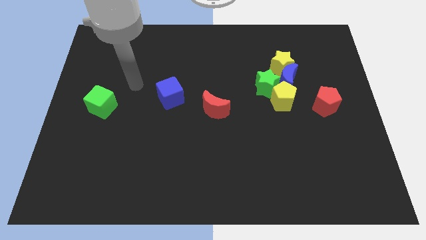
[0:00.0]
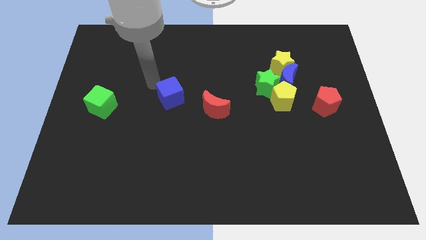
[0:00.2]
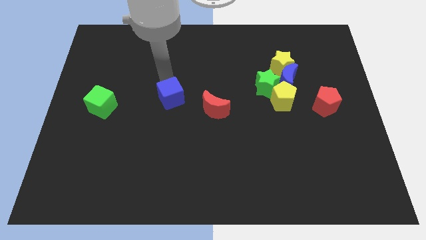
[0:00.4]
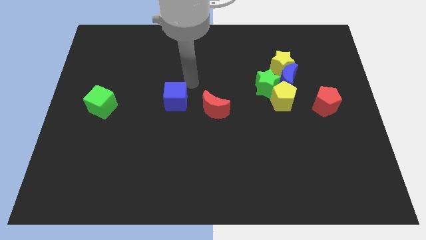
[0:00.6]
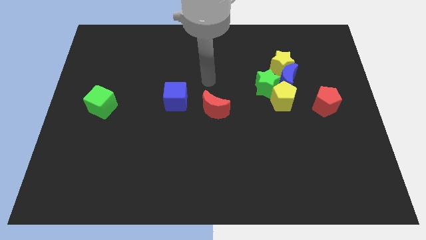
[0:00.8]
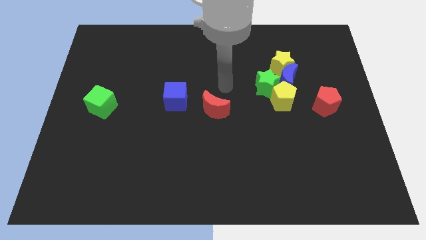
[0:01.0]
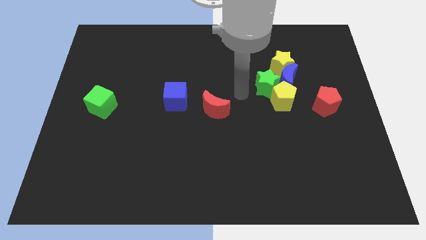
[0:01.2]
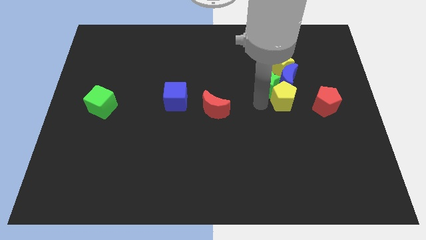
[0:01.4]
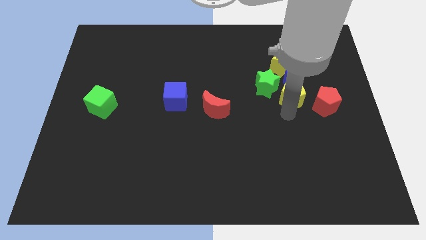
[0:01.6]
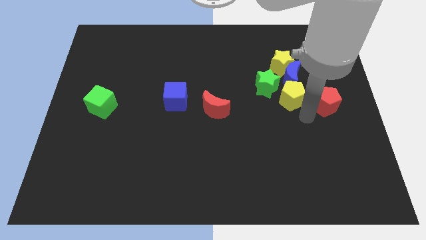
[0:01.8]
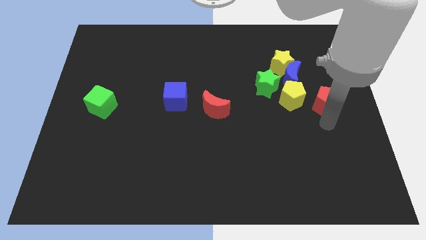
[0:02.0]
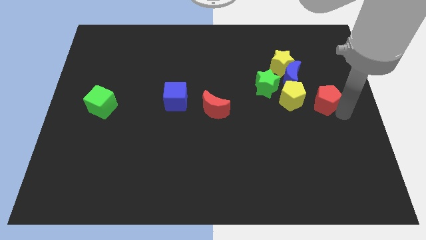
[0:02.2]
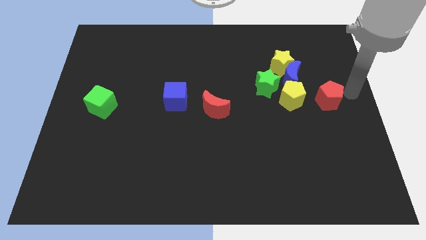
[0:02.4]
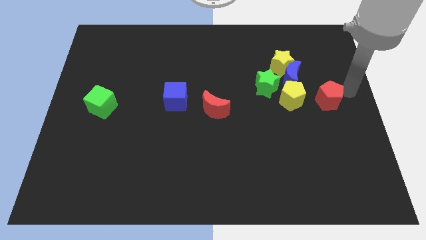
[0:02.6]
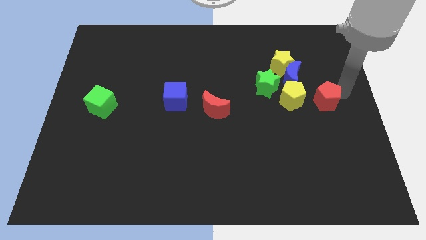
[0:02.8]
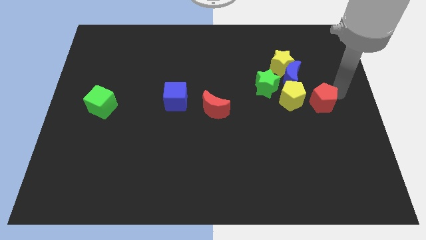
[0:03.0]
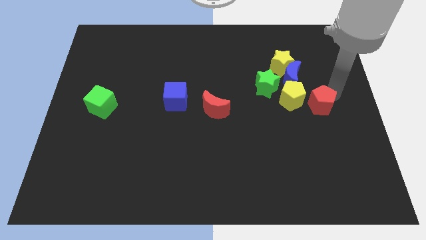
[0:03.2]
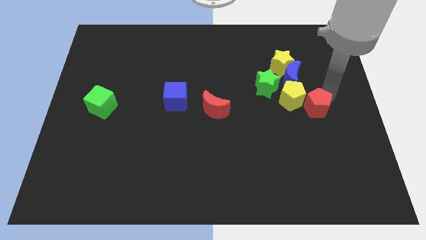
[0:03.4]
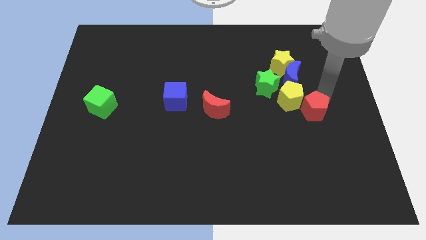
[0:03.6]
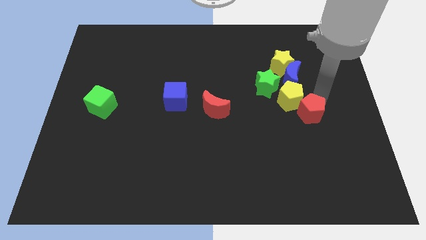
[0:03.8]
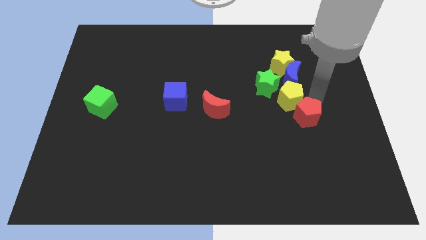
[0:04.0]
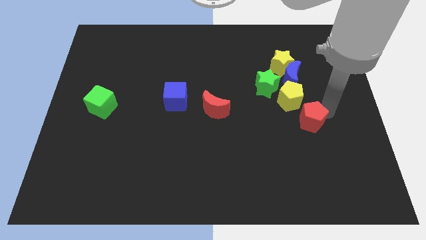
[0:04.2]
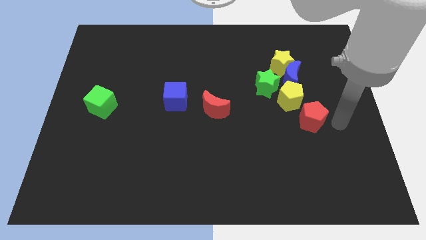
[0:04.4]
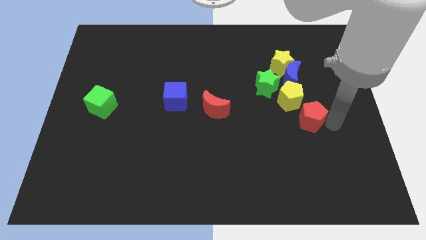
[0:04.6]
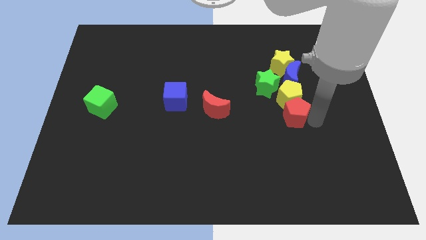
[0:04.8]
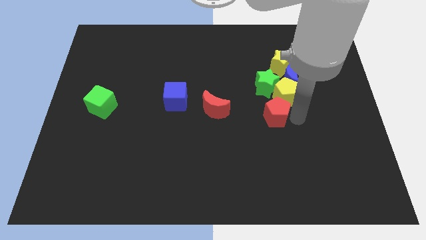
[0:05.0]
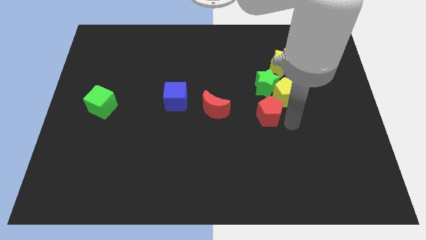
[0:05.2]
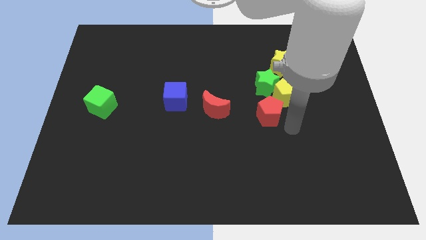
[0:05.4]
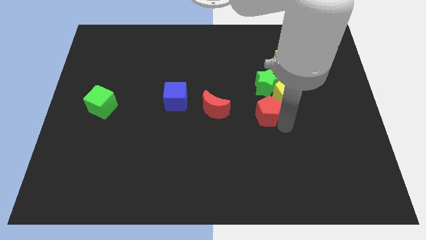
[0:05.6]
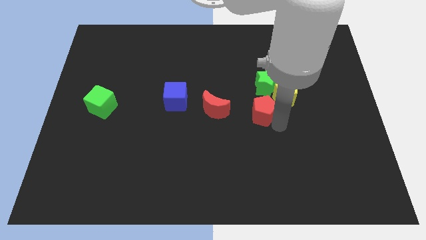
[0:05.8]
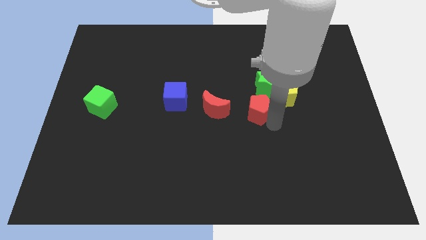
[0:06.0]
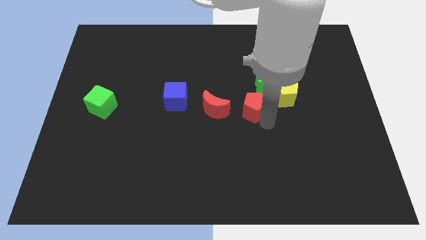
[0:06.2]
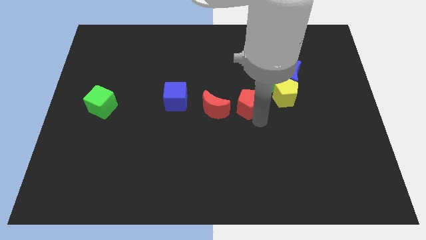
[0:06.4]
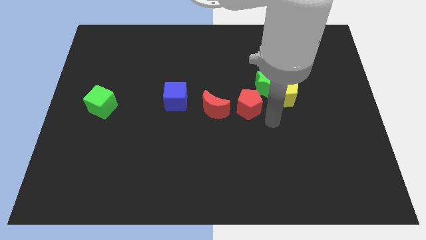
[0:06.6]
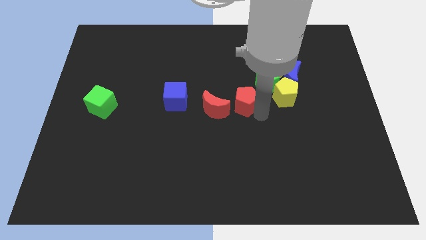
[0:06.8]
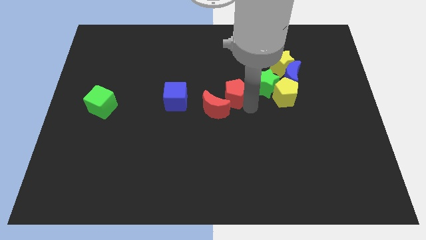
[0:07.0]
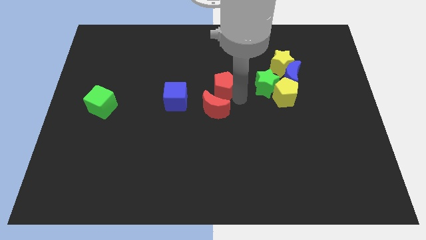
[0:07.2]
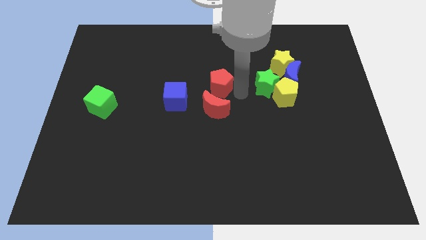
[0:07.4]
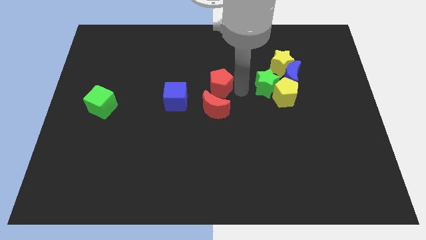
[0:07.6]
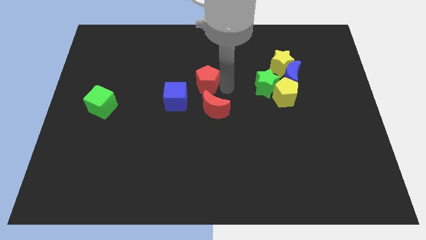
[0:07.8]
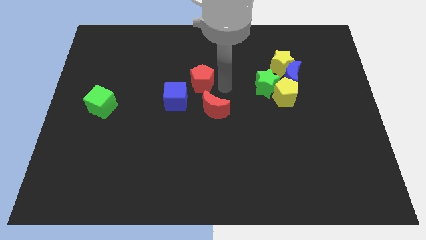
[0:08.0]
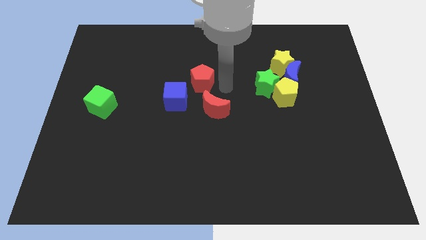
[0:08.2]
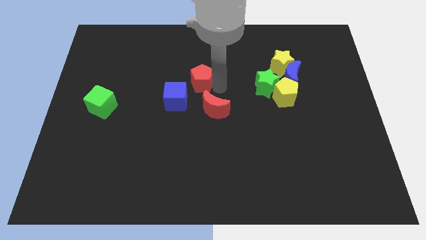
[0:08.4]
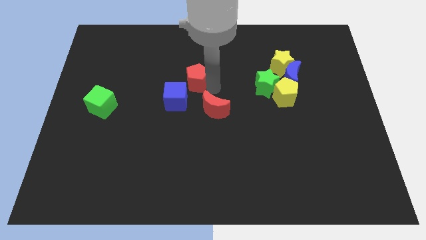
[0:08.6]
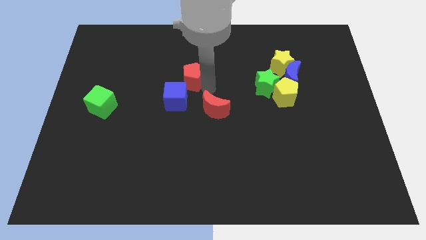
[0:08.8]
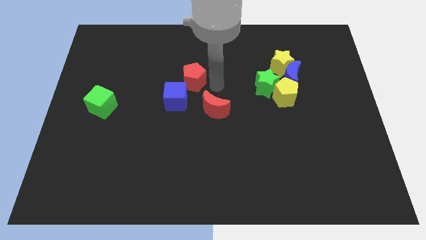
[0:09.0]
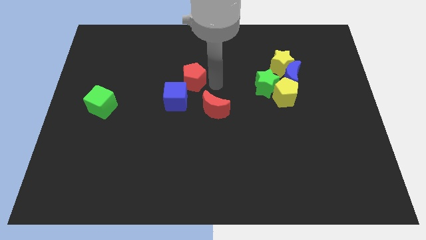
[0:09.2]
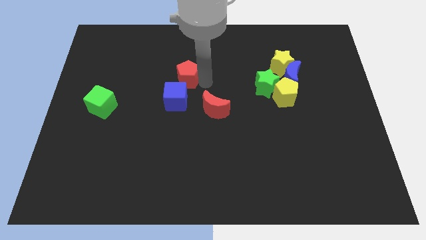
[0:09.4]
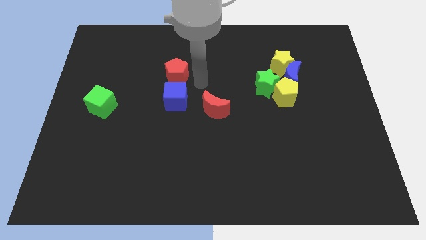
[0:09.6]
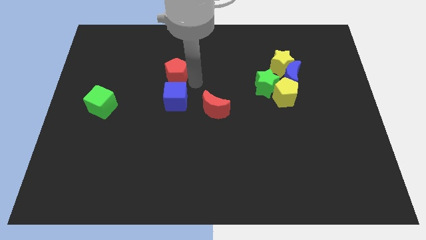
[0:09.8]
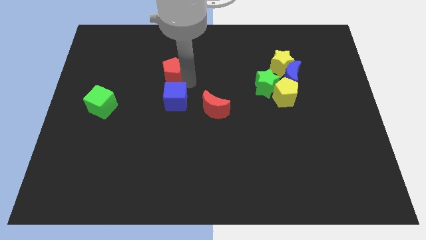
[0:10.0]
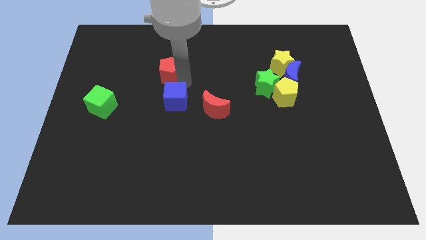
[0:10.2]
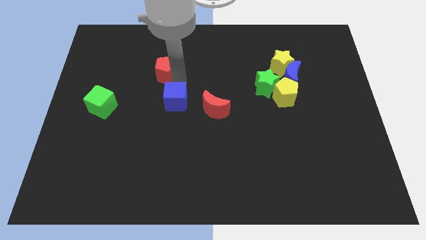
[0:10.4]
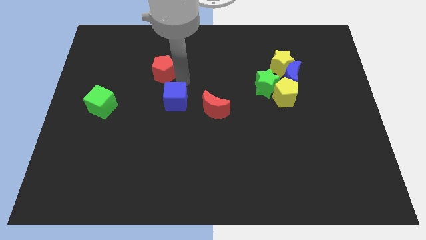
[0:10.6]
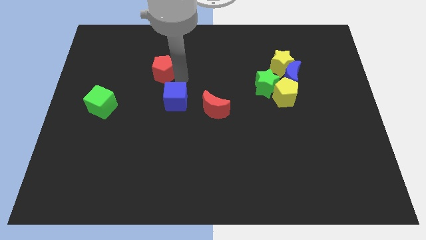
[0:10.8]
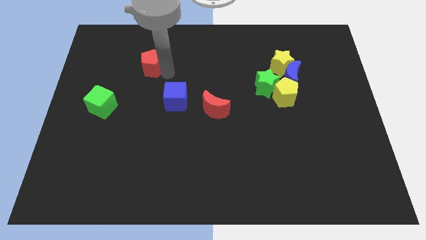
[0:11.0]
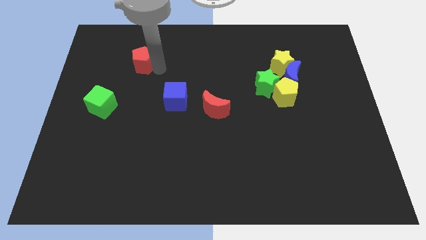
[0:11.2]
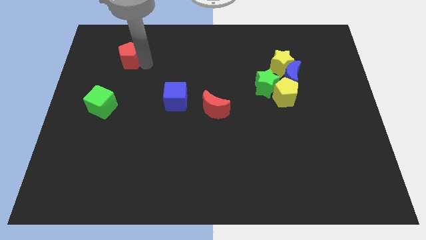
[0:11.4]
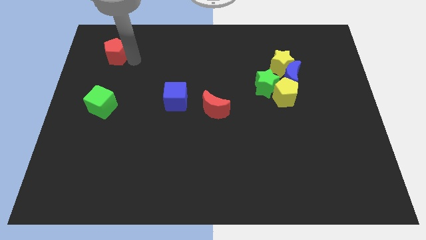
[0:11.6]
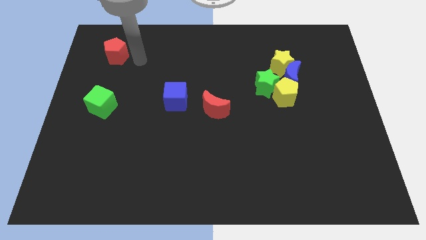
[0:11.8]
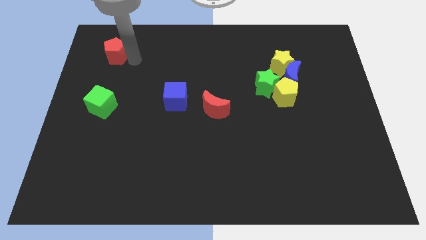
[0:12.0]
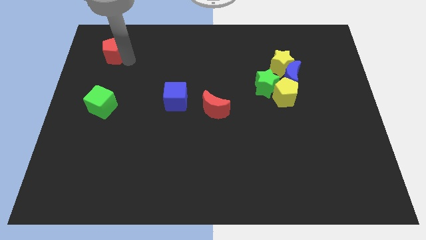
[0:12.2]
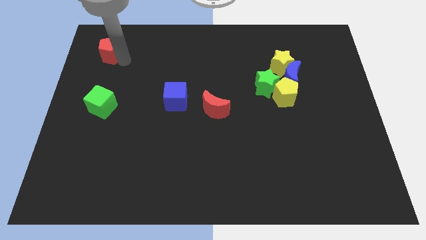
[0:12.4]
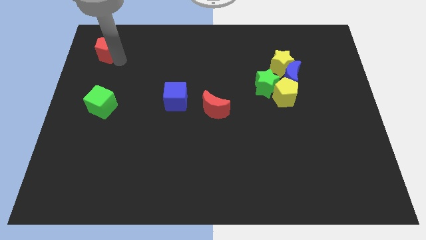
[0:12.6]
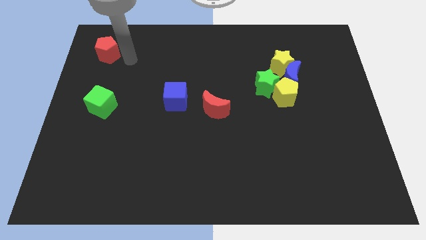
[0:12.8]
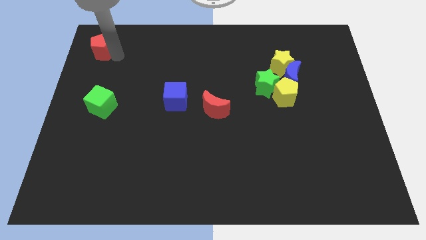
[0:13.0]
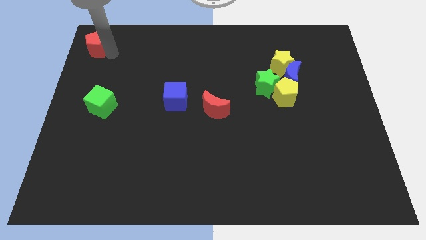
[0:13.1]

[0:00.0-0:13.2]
put the red pentagon to the upper left corner
